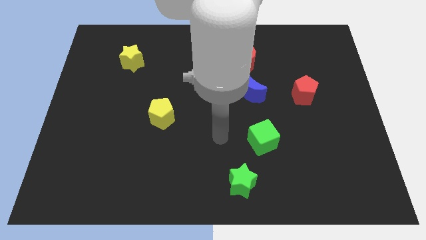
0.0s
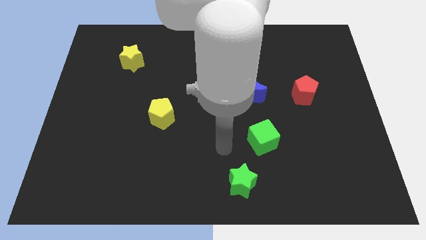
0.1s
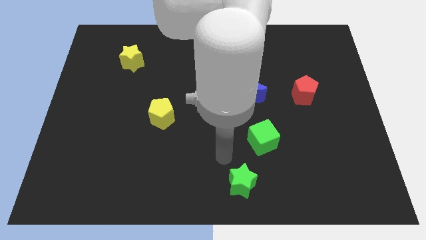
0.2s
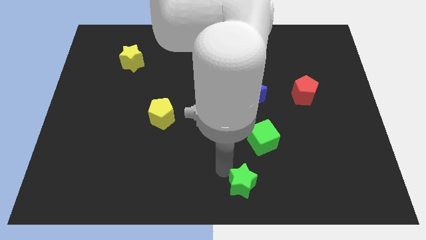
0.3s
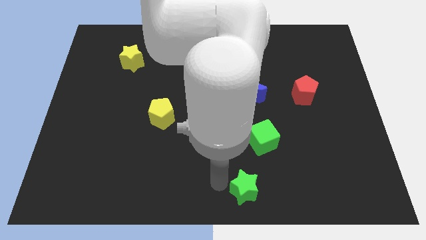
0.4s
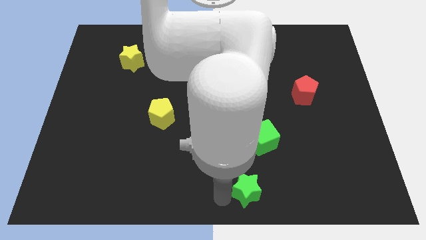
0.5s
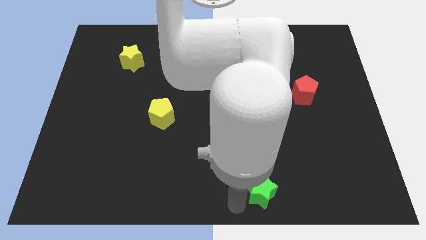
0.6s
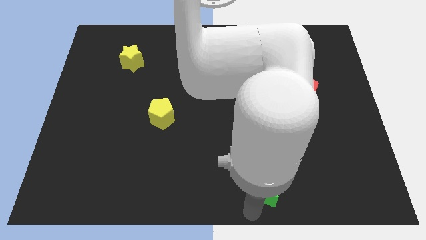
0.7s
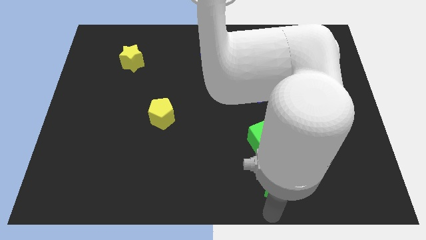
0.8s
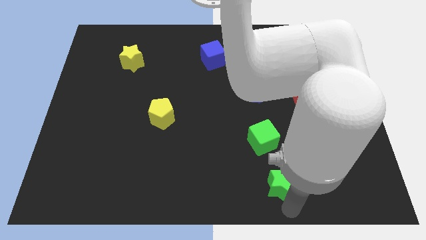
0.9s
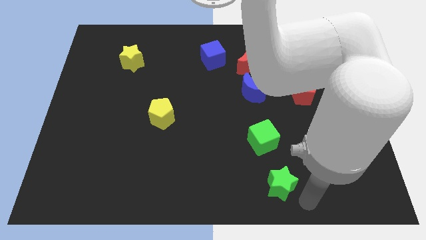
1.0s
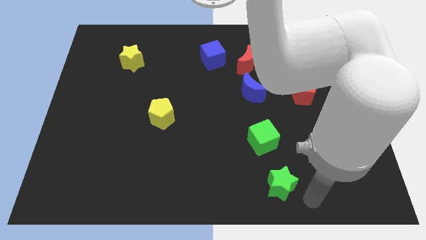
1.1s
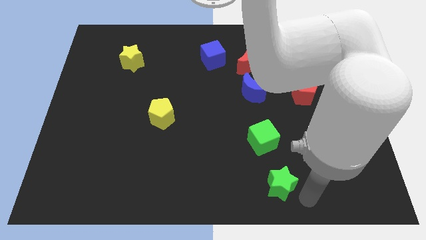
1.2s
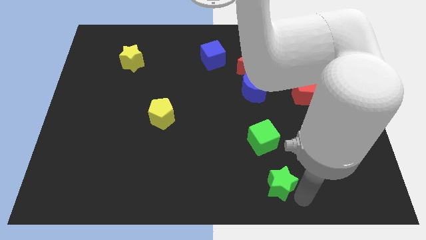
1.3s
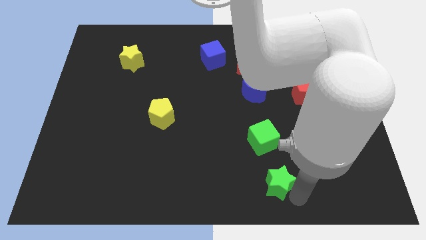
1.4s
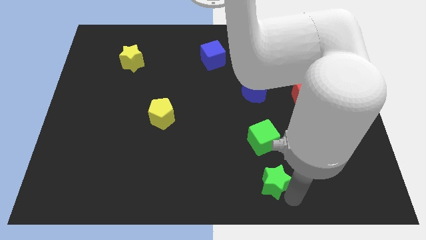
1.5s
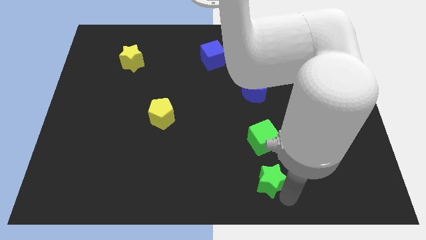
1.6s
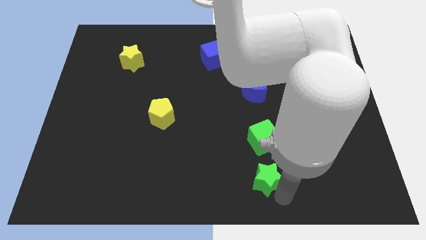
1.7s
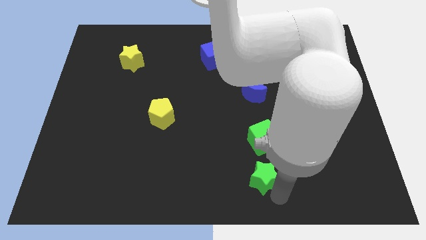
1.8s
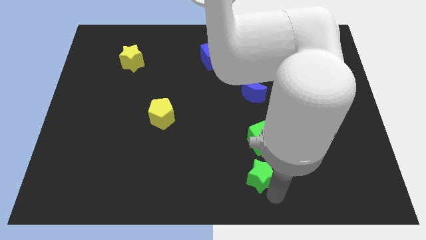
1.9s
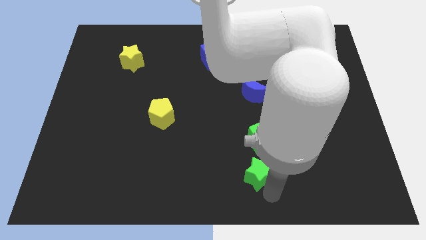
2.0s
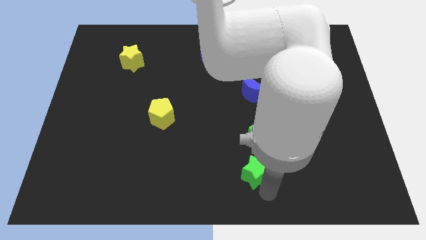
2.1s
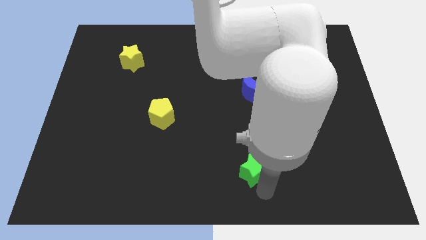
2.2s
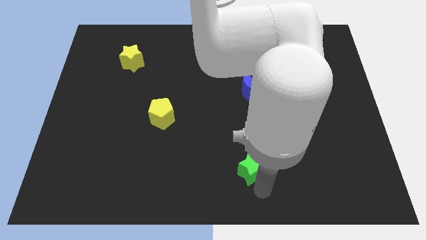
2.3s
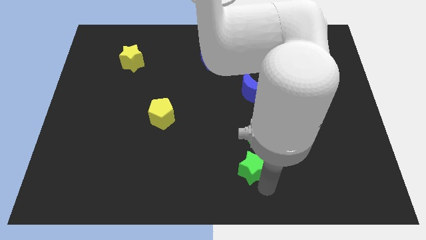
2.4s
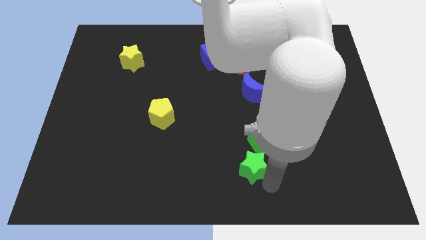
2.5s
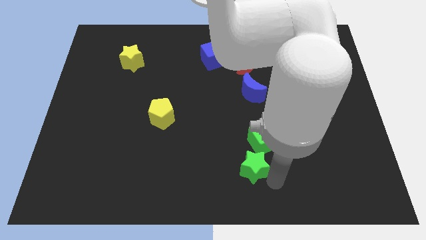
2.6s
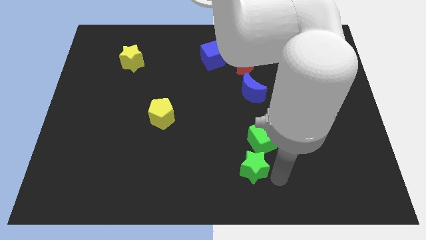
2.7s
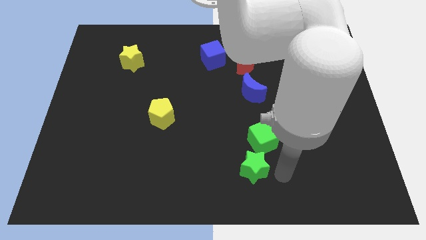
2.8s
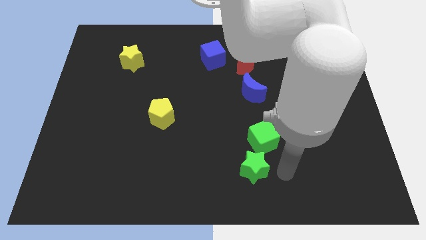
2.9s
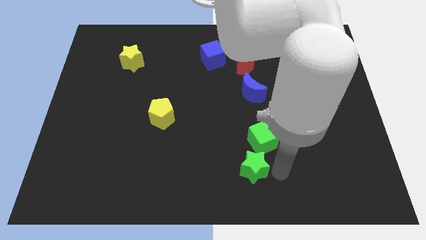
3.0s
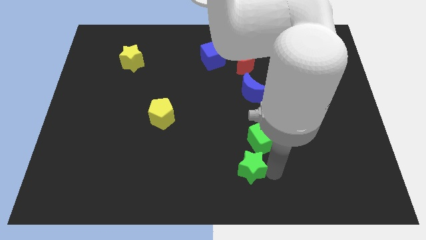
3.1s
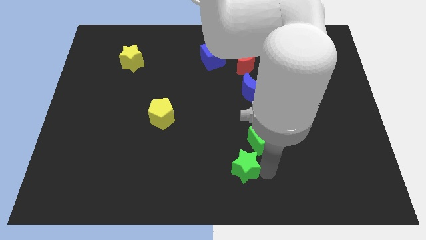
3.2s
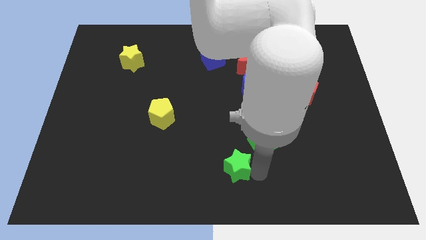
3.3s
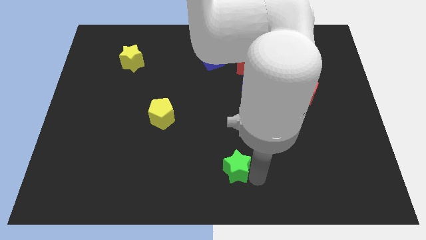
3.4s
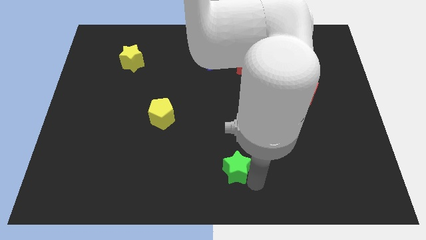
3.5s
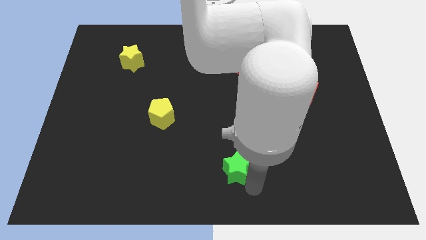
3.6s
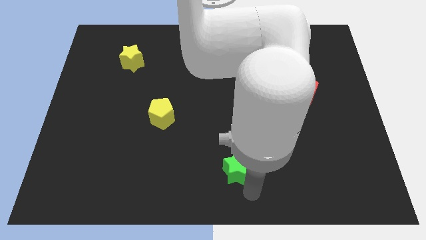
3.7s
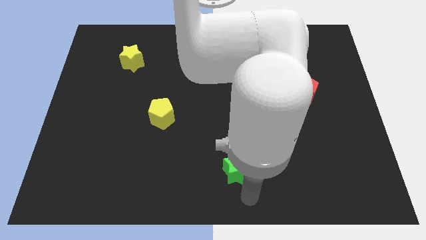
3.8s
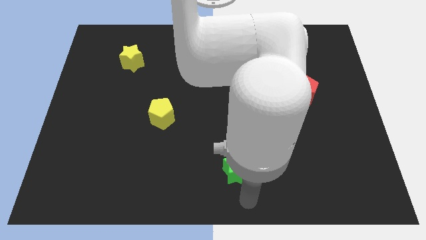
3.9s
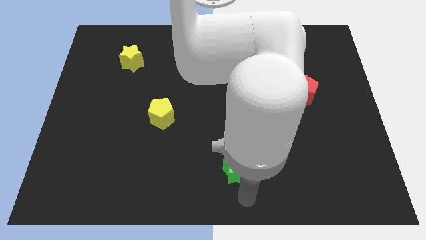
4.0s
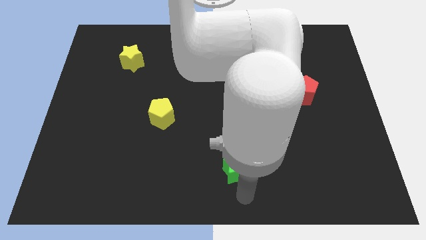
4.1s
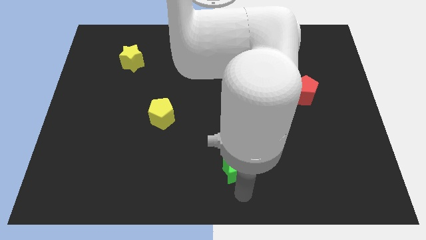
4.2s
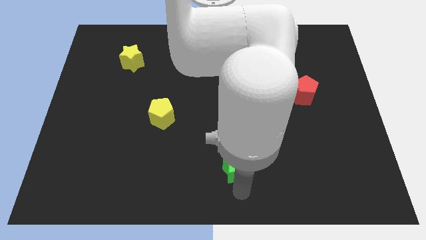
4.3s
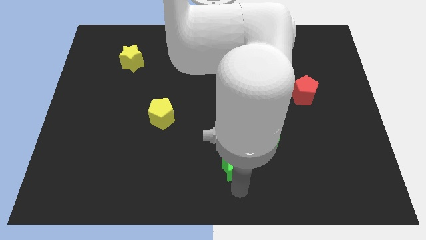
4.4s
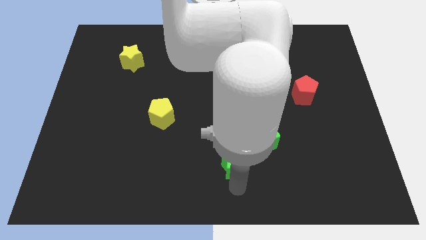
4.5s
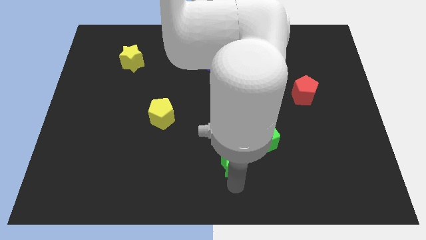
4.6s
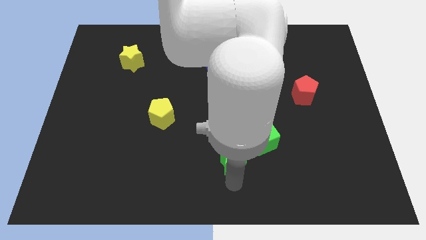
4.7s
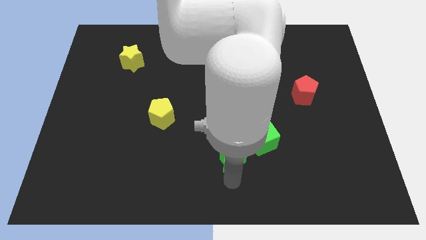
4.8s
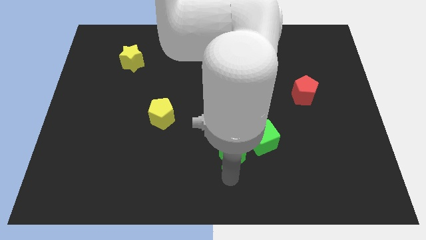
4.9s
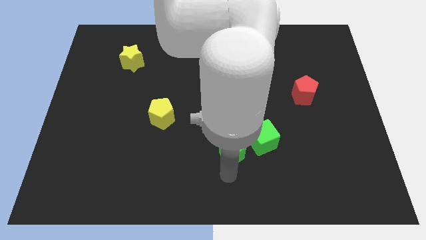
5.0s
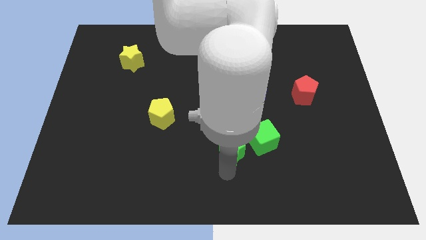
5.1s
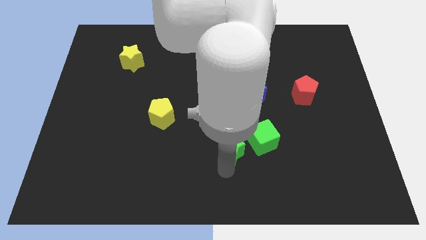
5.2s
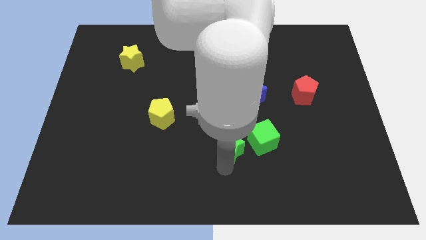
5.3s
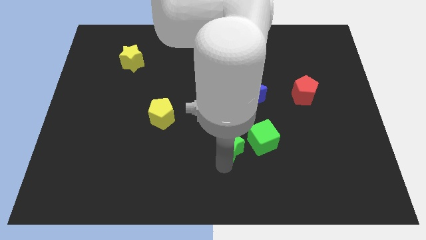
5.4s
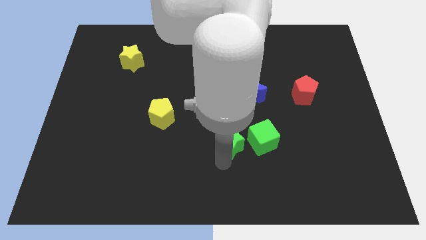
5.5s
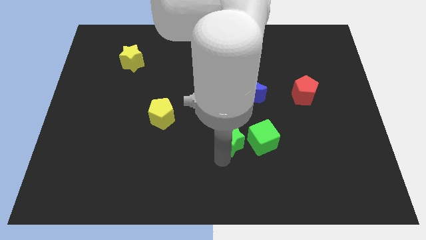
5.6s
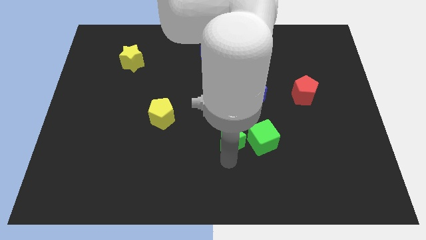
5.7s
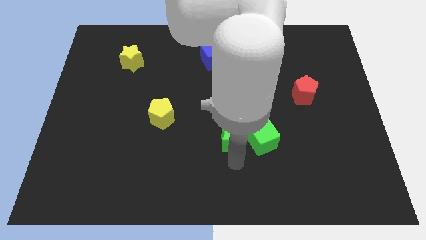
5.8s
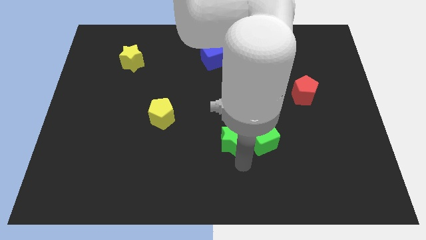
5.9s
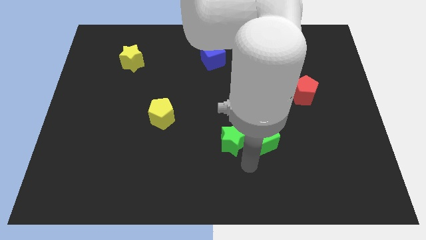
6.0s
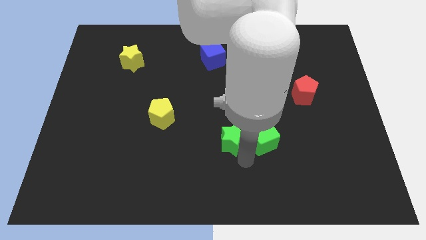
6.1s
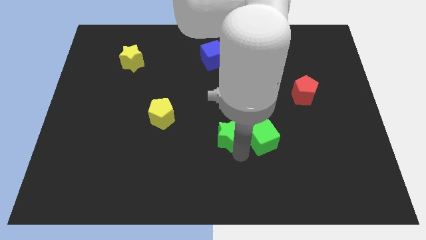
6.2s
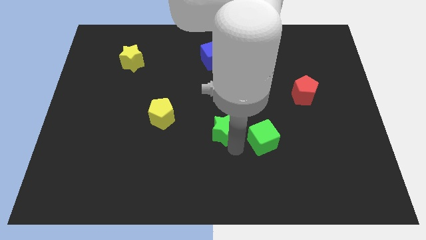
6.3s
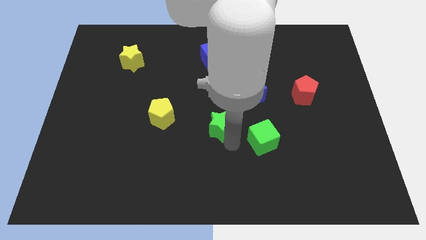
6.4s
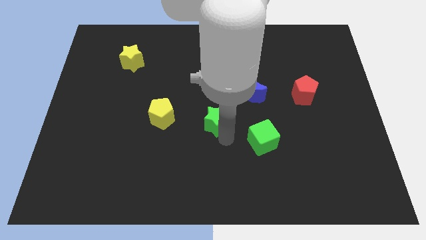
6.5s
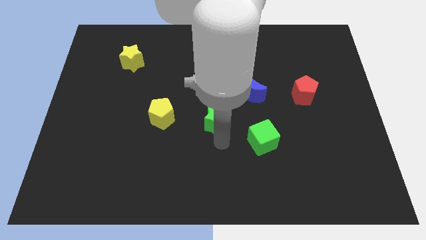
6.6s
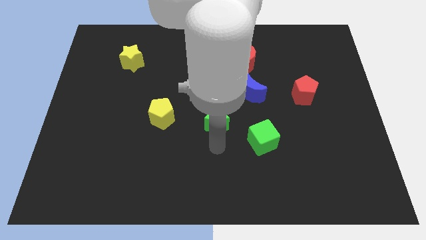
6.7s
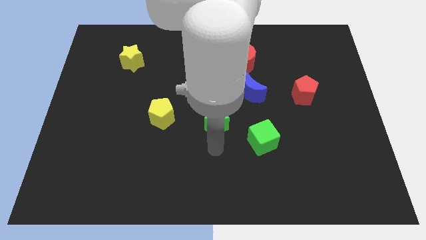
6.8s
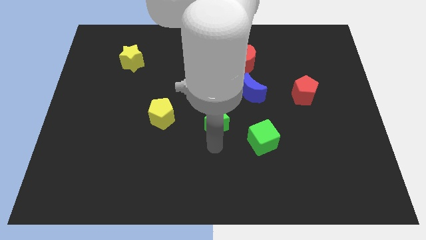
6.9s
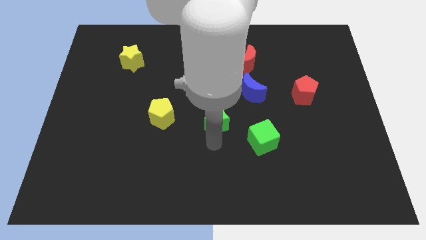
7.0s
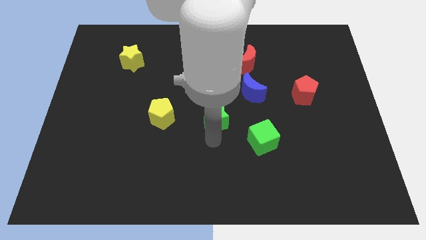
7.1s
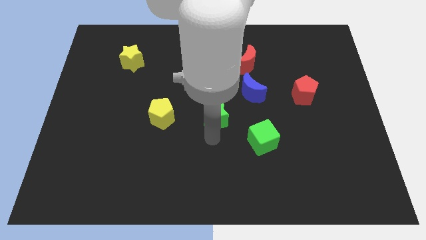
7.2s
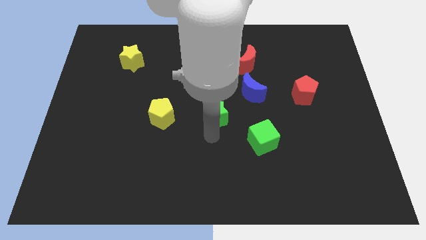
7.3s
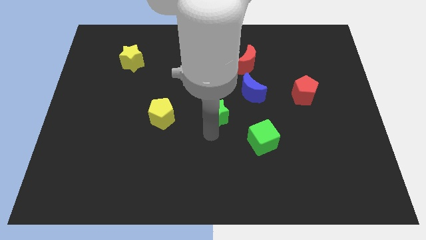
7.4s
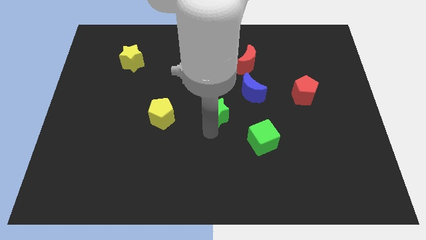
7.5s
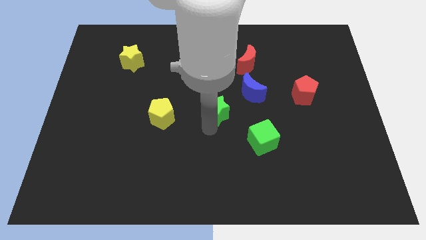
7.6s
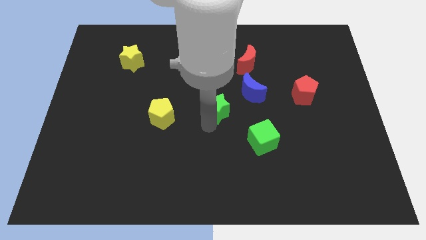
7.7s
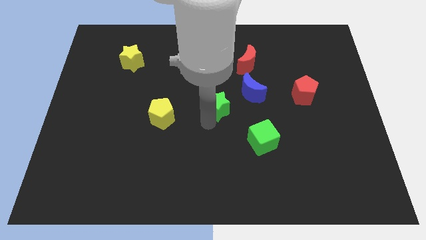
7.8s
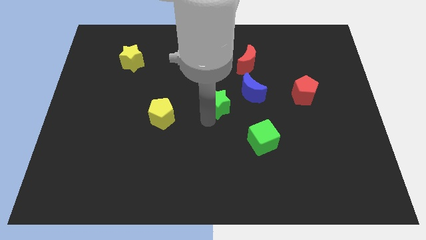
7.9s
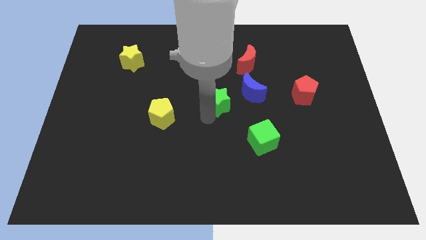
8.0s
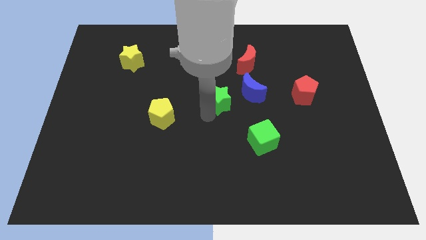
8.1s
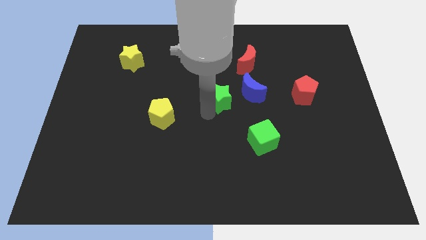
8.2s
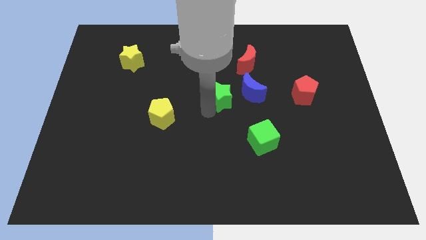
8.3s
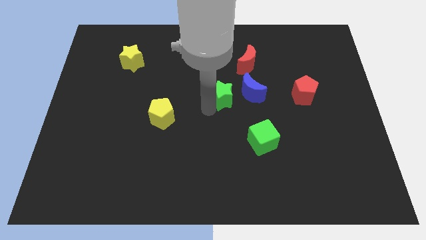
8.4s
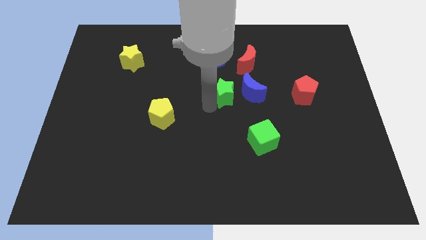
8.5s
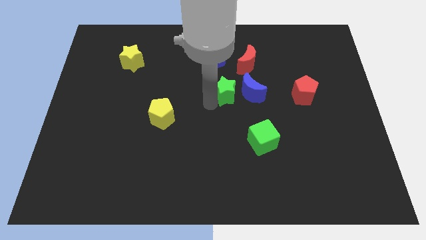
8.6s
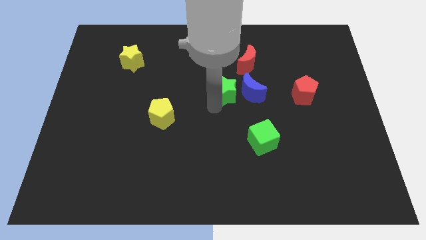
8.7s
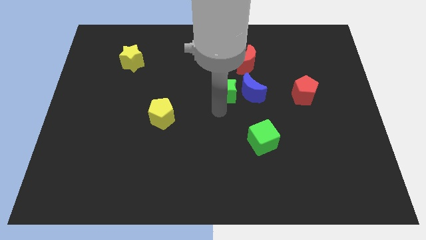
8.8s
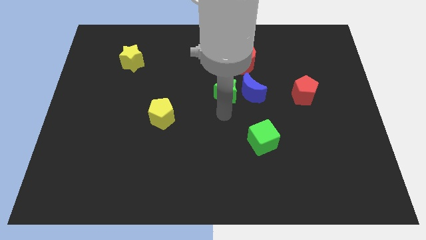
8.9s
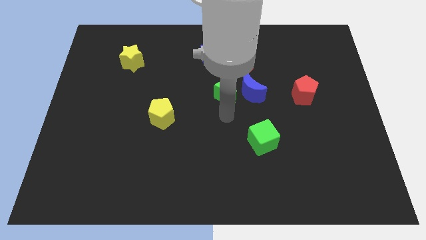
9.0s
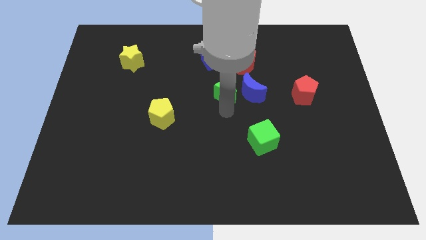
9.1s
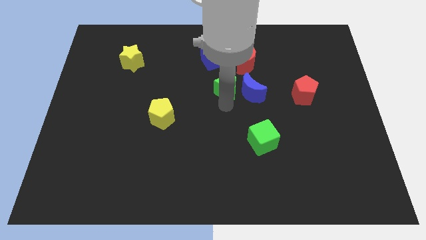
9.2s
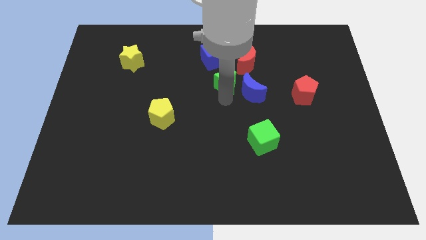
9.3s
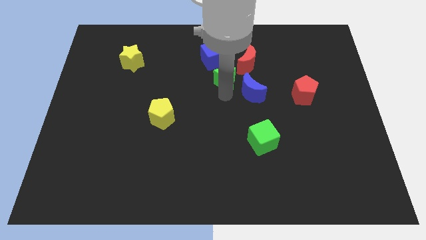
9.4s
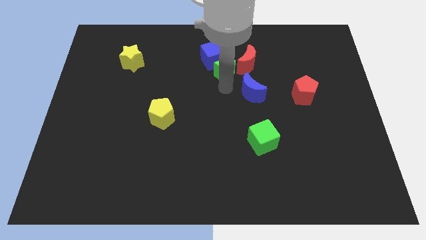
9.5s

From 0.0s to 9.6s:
move the green star next to the blue cube
